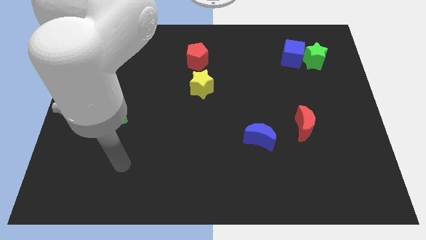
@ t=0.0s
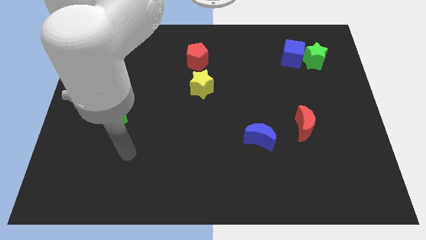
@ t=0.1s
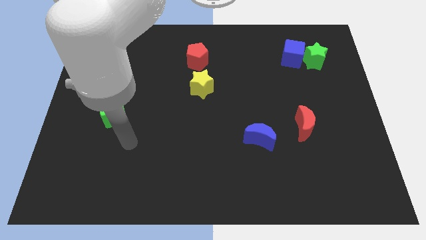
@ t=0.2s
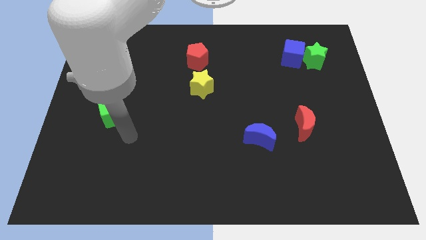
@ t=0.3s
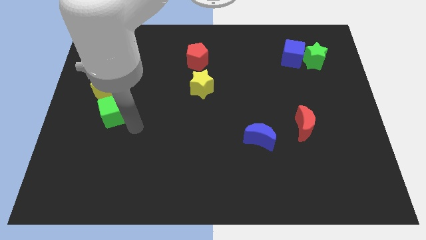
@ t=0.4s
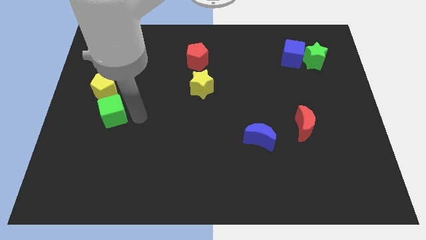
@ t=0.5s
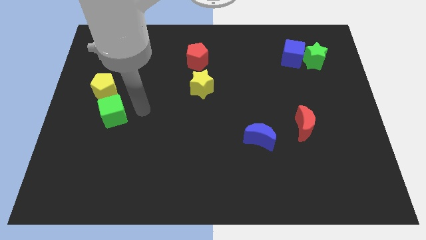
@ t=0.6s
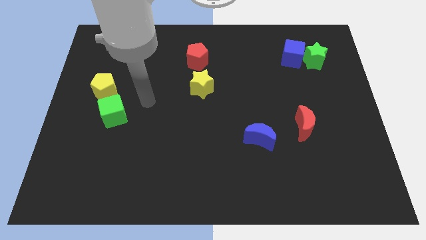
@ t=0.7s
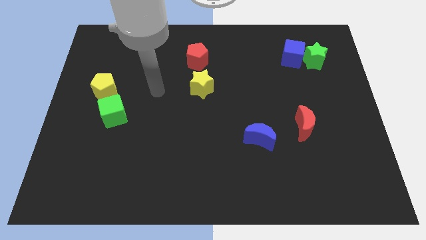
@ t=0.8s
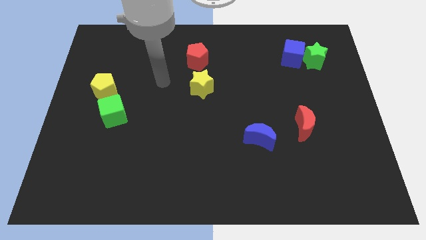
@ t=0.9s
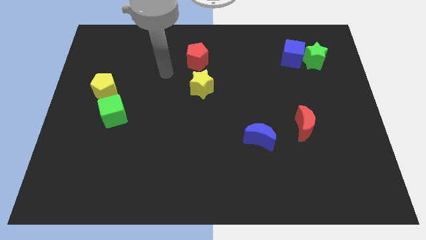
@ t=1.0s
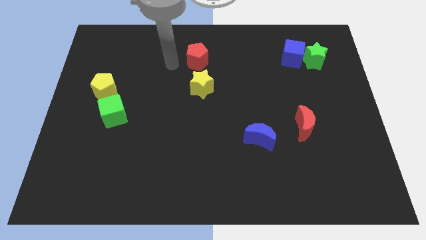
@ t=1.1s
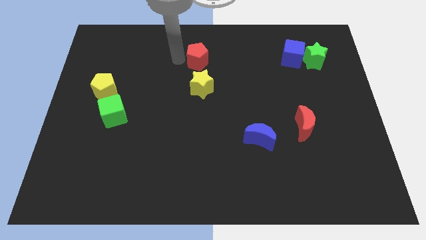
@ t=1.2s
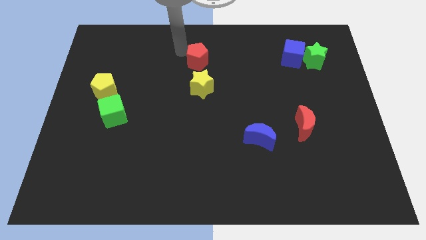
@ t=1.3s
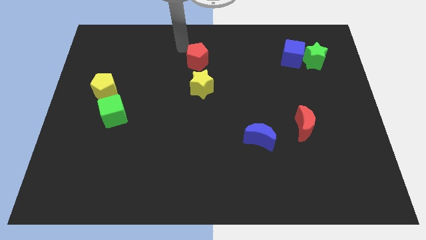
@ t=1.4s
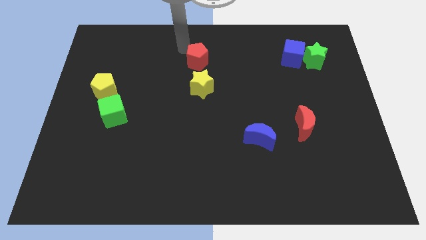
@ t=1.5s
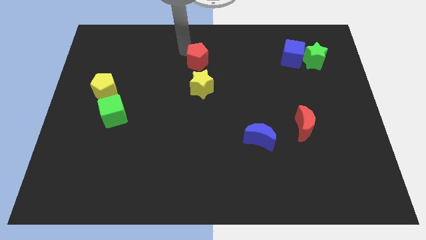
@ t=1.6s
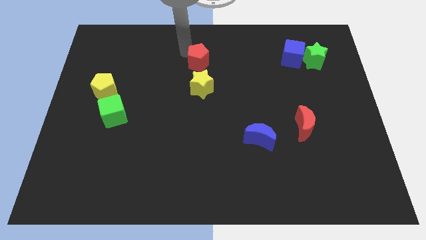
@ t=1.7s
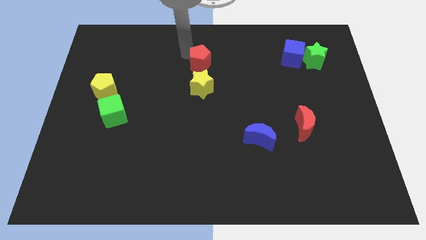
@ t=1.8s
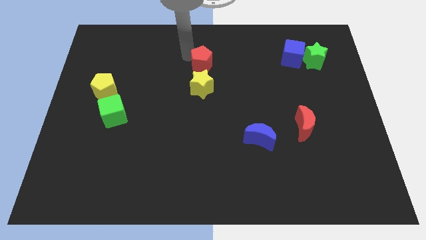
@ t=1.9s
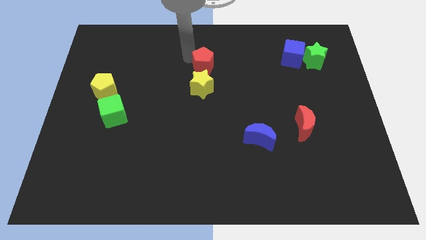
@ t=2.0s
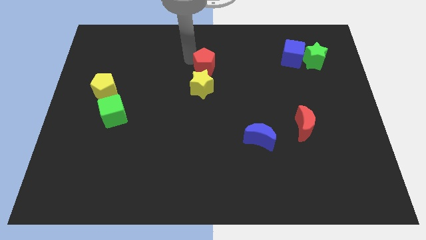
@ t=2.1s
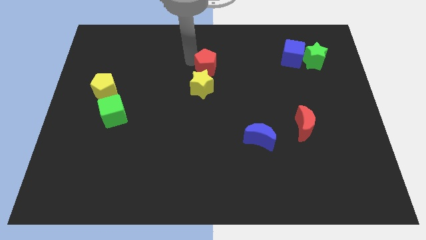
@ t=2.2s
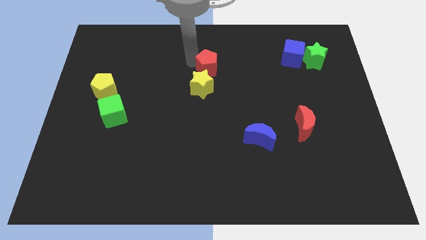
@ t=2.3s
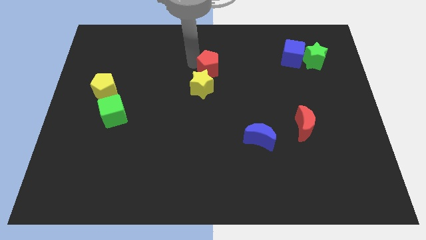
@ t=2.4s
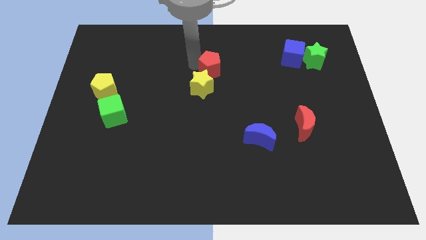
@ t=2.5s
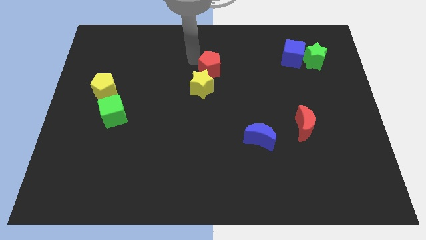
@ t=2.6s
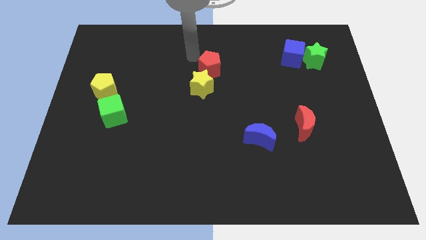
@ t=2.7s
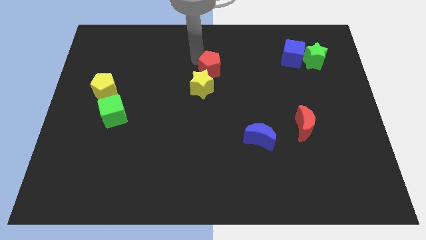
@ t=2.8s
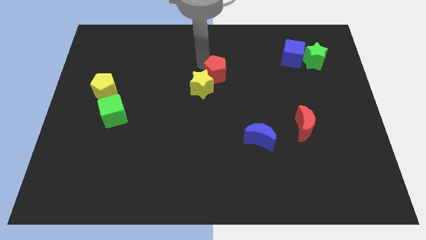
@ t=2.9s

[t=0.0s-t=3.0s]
move the red pentagon downwards and to the right diagonally slightly

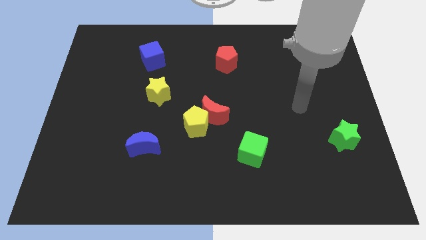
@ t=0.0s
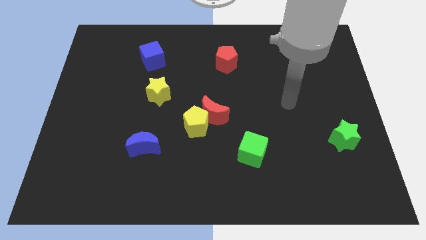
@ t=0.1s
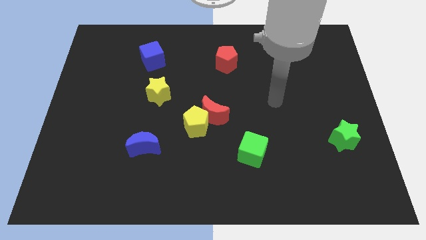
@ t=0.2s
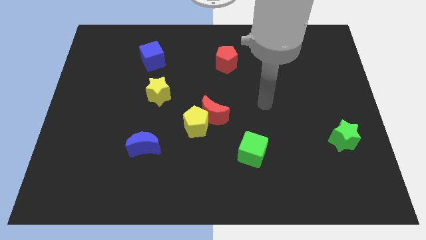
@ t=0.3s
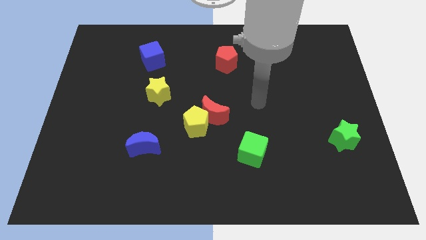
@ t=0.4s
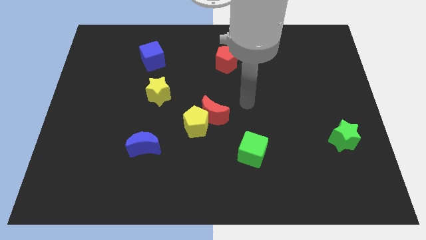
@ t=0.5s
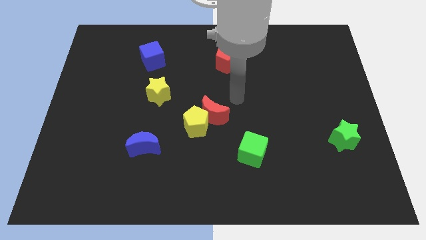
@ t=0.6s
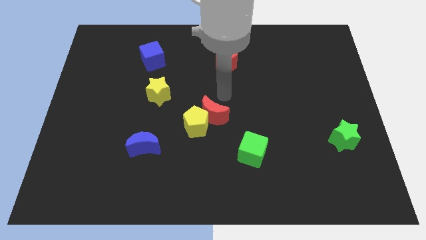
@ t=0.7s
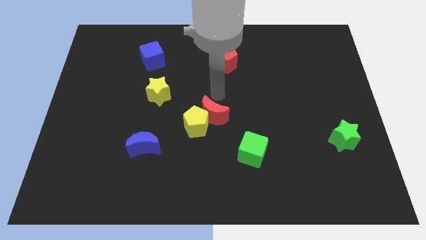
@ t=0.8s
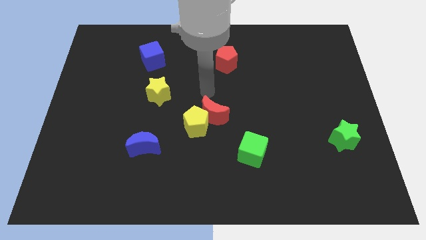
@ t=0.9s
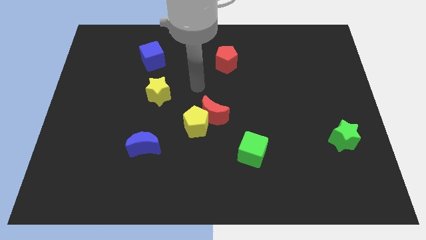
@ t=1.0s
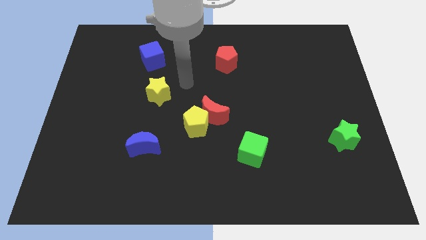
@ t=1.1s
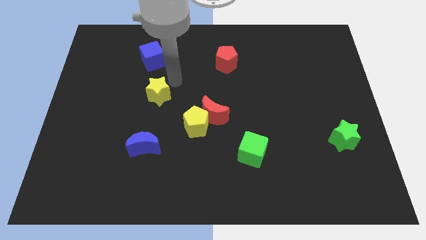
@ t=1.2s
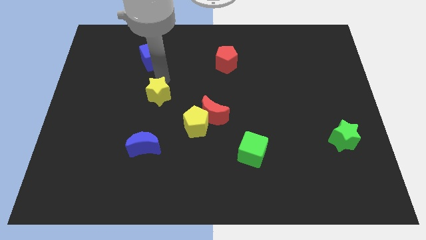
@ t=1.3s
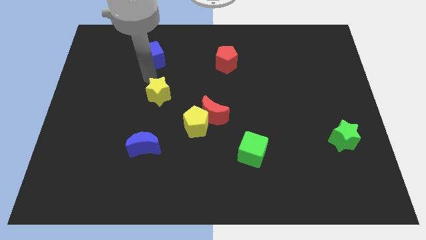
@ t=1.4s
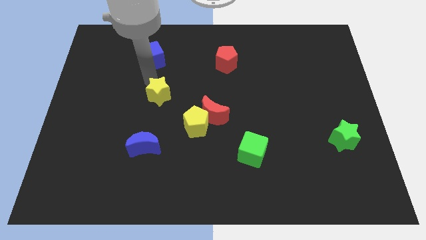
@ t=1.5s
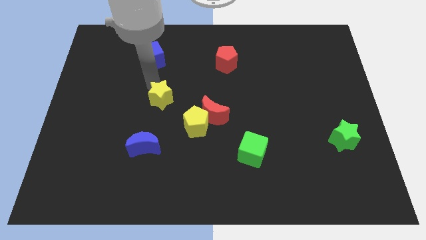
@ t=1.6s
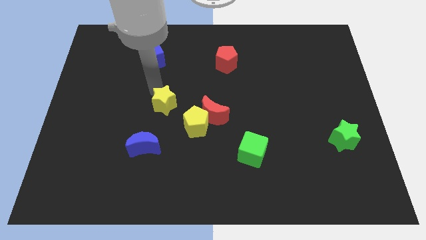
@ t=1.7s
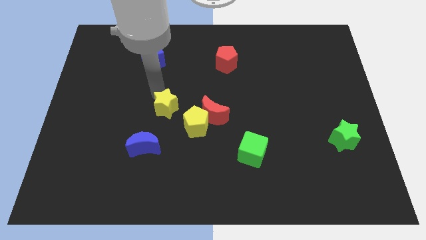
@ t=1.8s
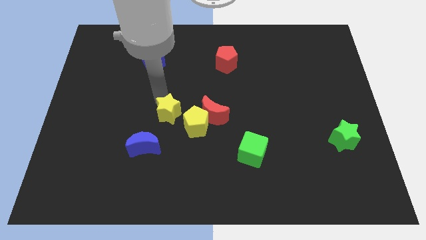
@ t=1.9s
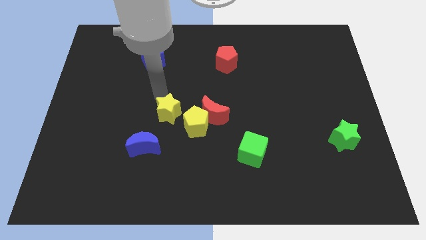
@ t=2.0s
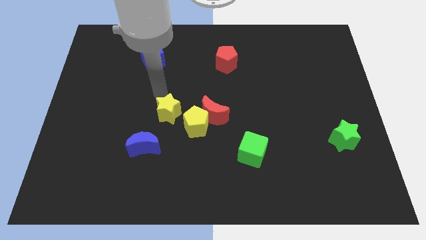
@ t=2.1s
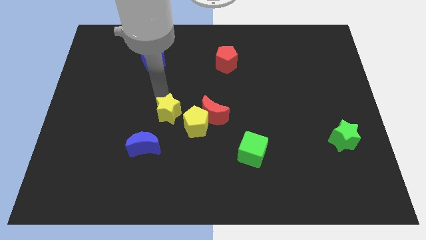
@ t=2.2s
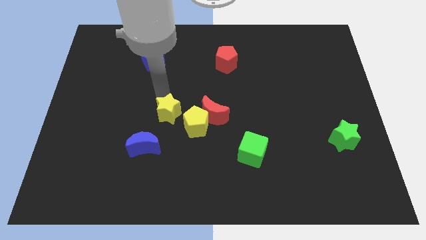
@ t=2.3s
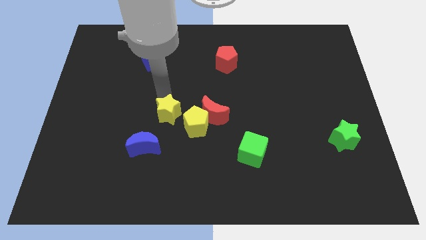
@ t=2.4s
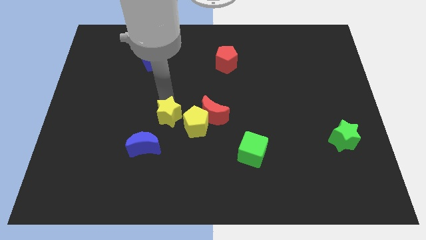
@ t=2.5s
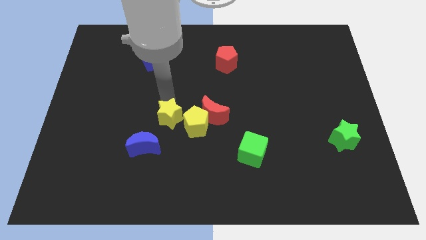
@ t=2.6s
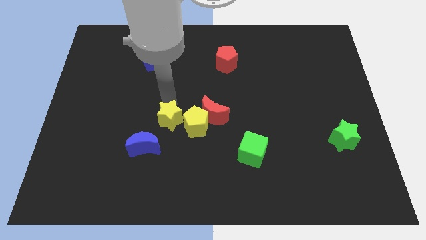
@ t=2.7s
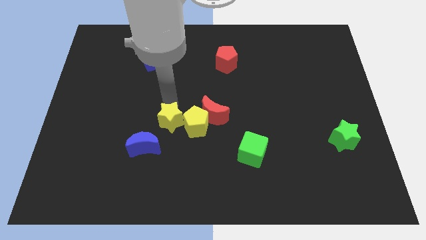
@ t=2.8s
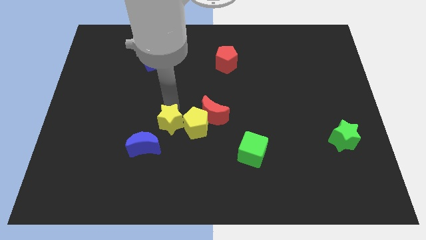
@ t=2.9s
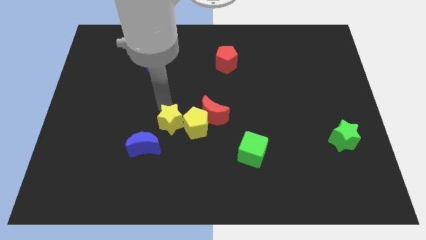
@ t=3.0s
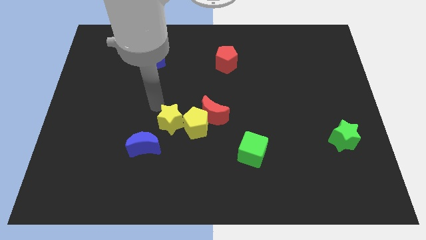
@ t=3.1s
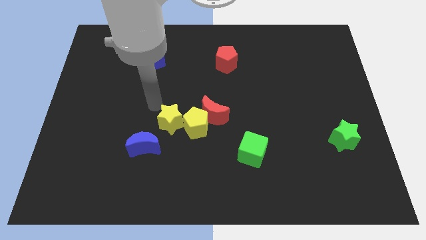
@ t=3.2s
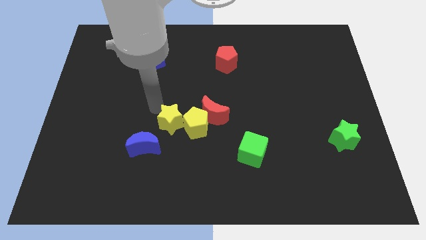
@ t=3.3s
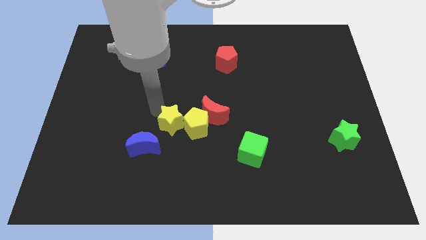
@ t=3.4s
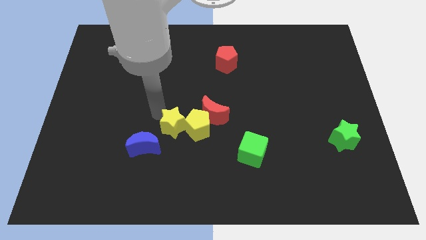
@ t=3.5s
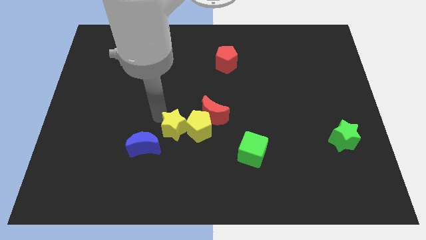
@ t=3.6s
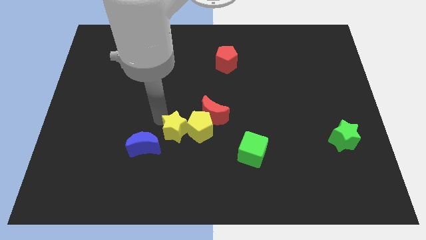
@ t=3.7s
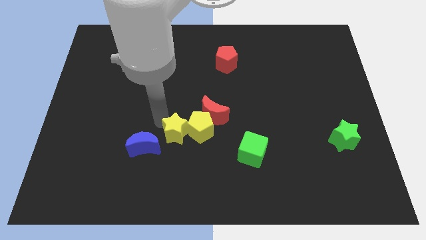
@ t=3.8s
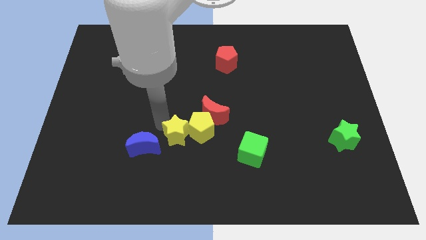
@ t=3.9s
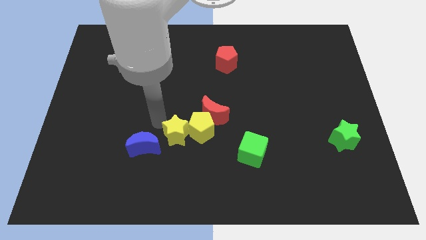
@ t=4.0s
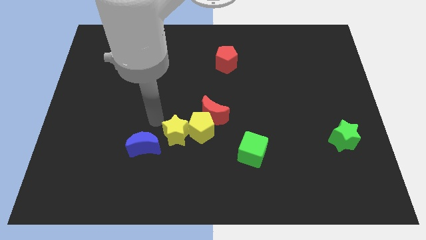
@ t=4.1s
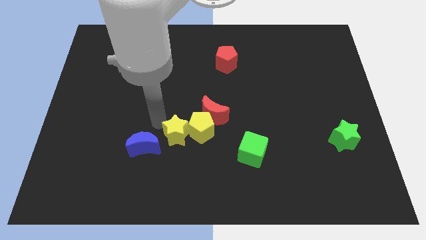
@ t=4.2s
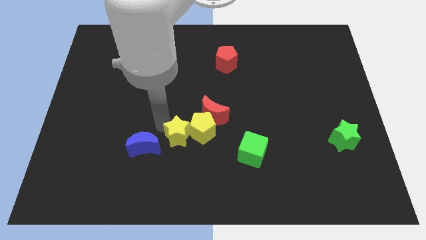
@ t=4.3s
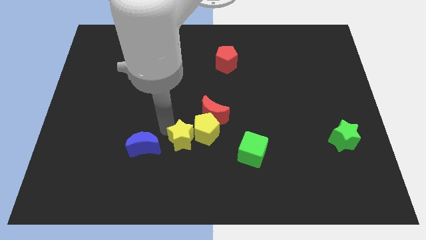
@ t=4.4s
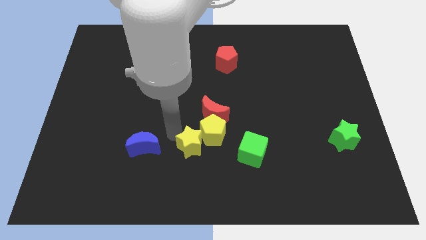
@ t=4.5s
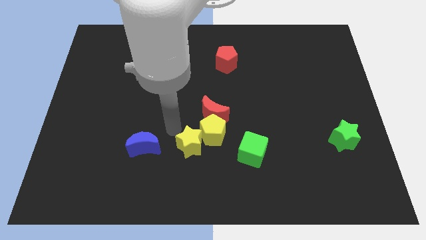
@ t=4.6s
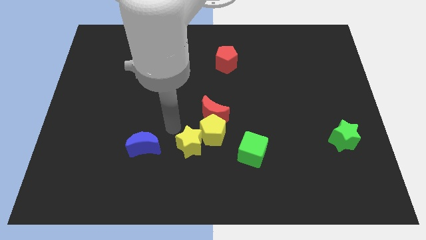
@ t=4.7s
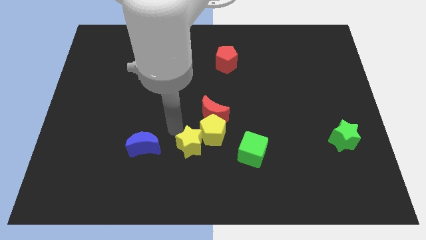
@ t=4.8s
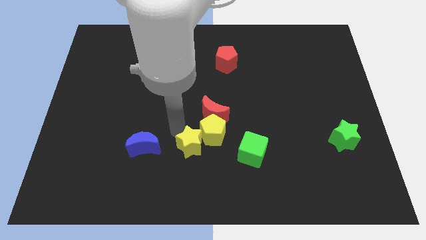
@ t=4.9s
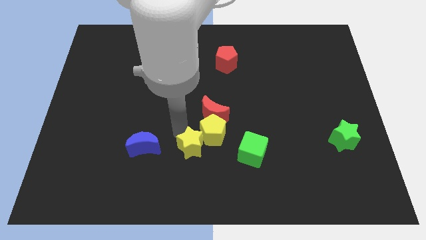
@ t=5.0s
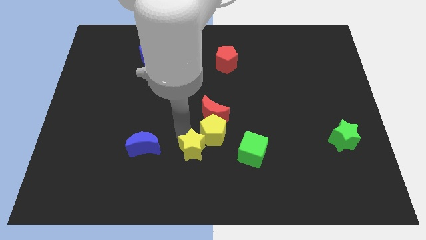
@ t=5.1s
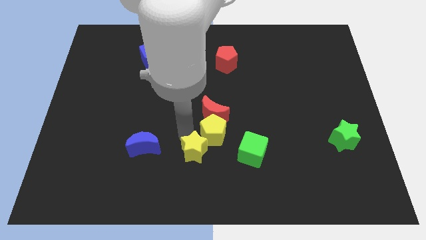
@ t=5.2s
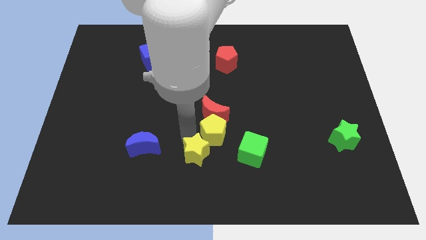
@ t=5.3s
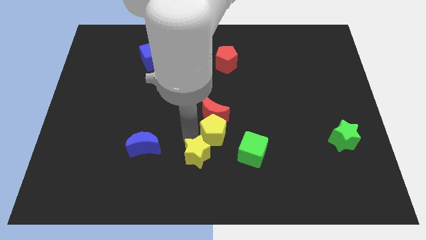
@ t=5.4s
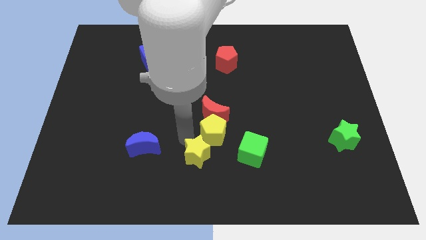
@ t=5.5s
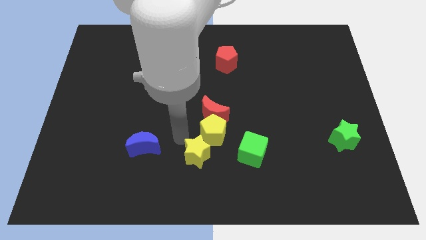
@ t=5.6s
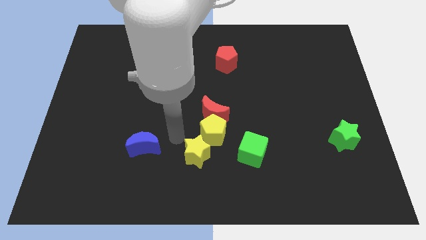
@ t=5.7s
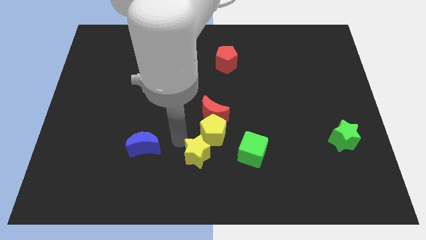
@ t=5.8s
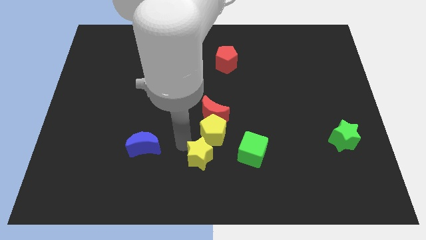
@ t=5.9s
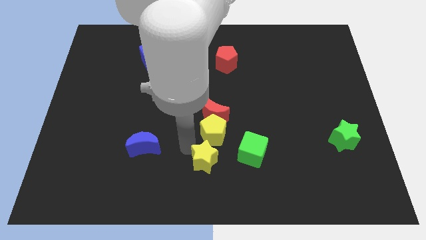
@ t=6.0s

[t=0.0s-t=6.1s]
slide the yellow star diagonally down and right
